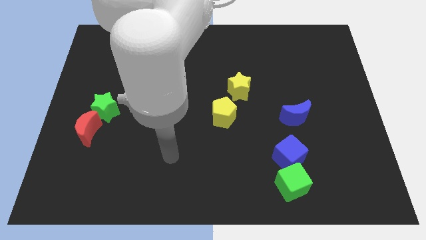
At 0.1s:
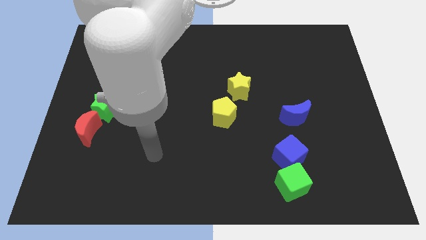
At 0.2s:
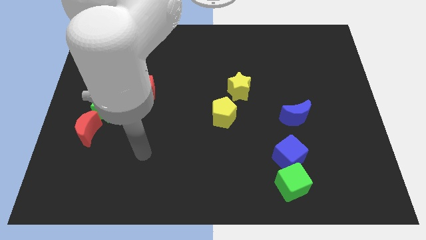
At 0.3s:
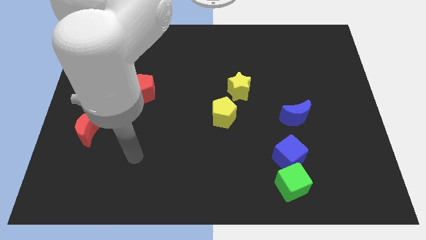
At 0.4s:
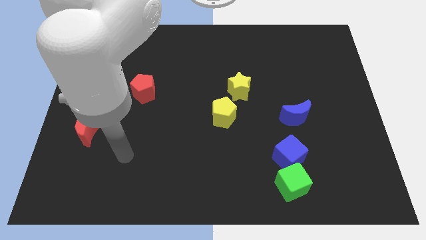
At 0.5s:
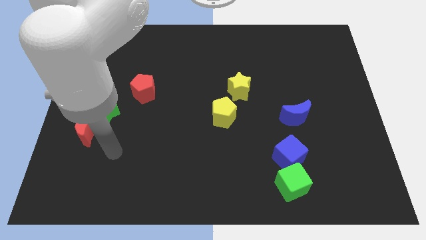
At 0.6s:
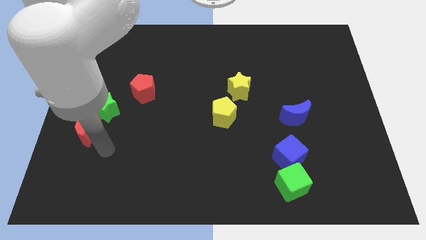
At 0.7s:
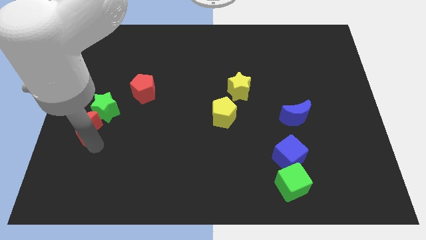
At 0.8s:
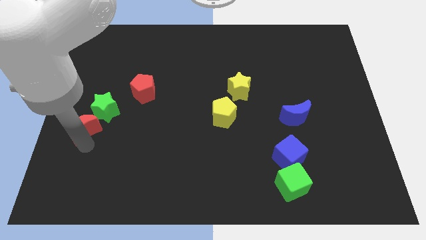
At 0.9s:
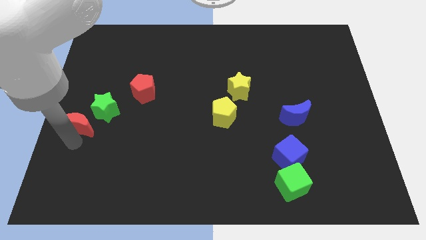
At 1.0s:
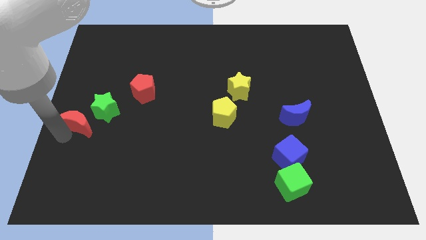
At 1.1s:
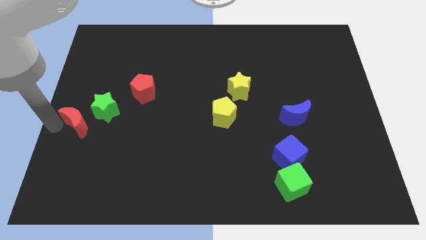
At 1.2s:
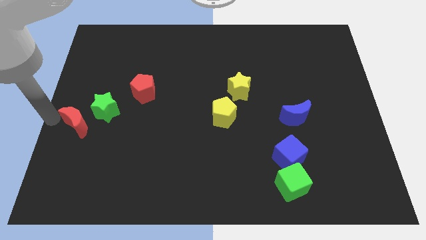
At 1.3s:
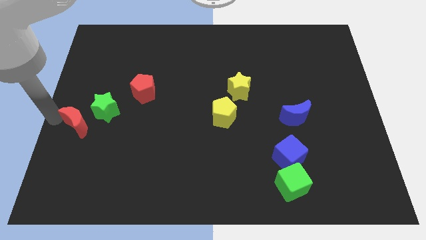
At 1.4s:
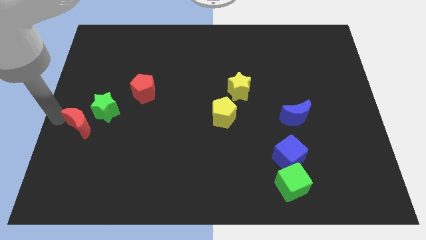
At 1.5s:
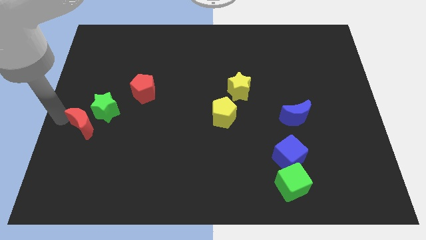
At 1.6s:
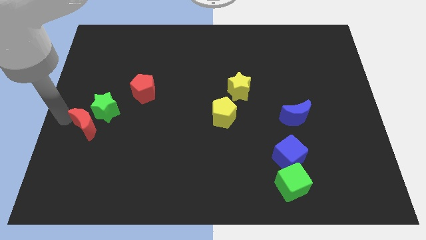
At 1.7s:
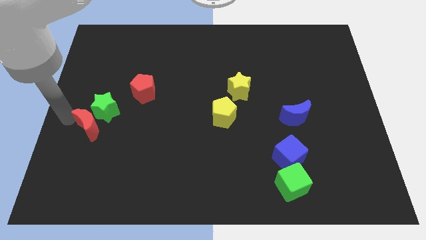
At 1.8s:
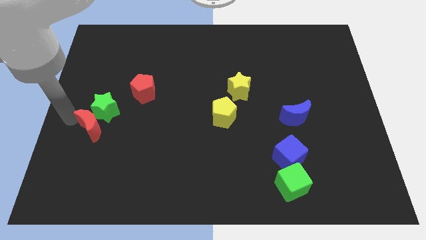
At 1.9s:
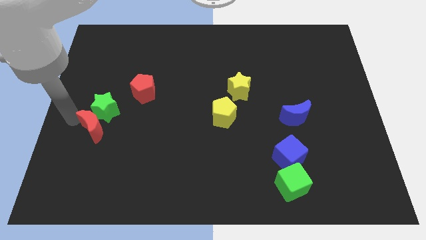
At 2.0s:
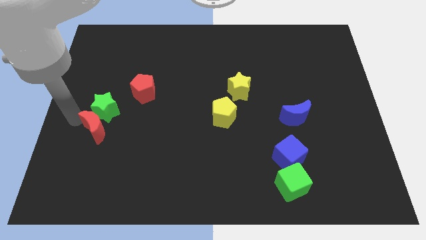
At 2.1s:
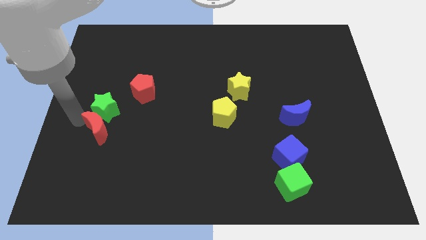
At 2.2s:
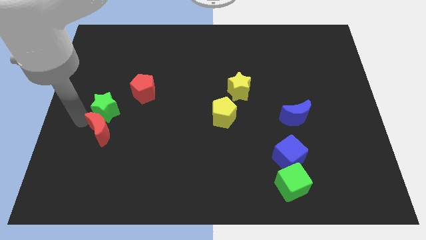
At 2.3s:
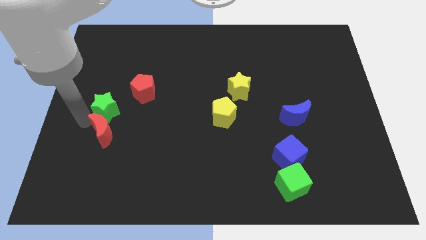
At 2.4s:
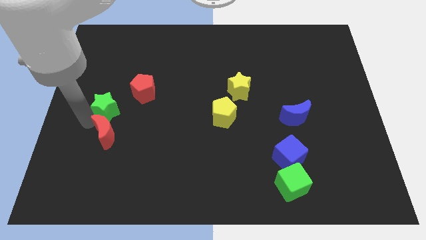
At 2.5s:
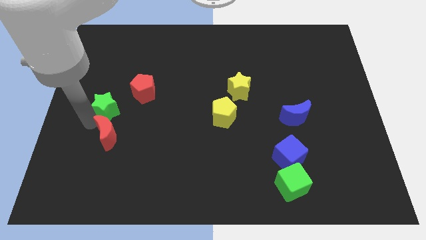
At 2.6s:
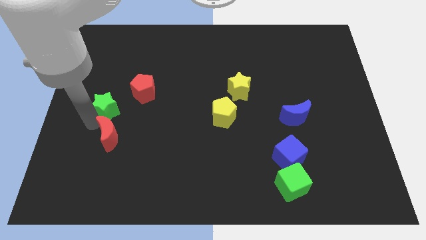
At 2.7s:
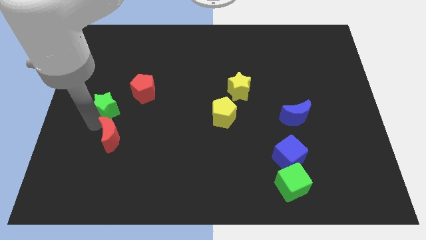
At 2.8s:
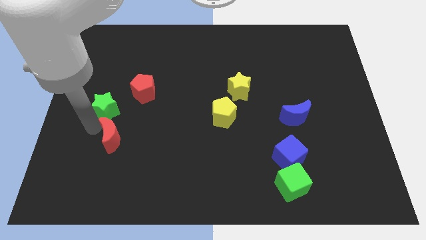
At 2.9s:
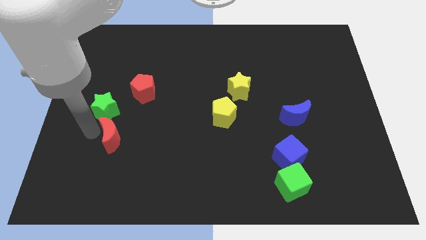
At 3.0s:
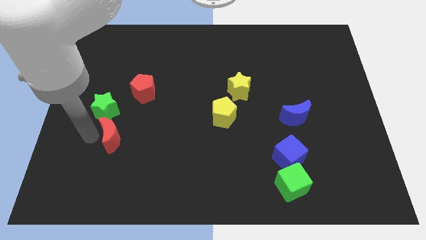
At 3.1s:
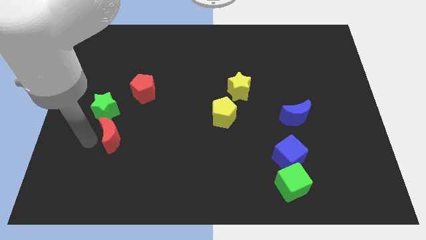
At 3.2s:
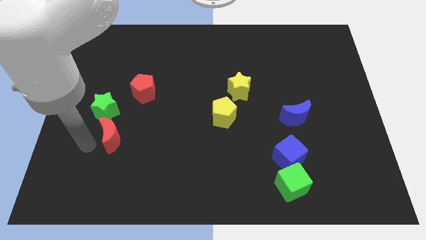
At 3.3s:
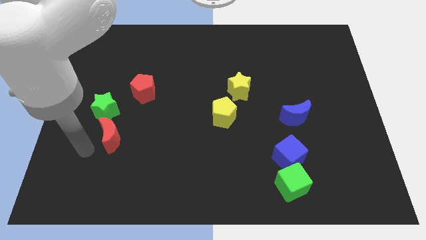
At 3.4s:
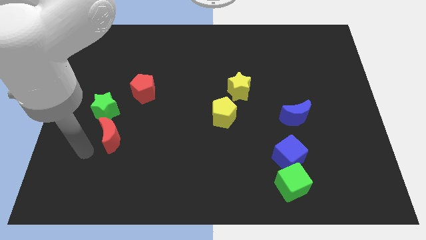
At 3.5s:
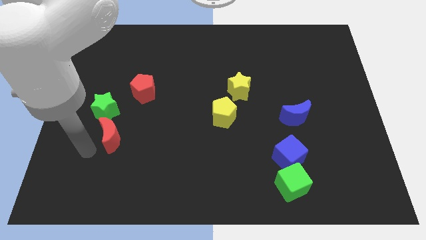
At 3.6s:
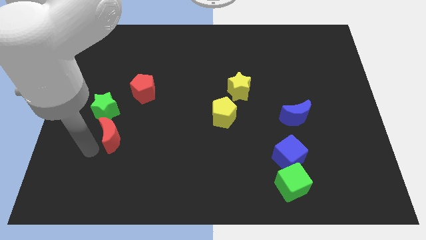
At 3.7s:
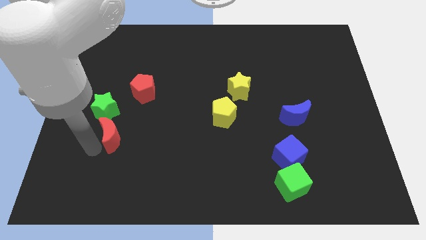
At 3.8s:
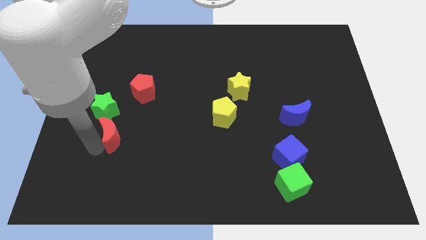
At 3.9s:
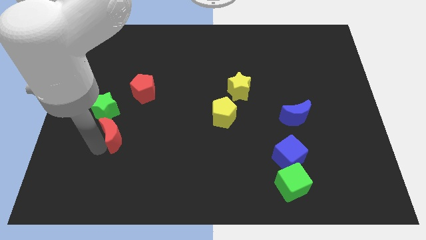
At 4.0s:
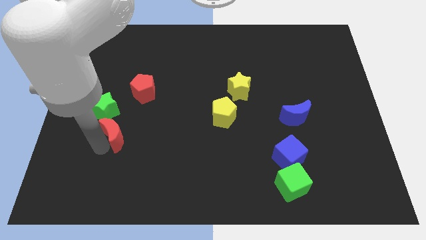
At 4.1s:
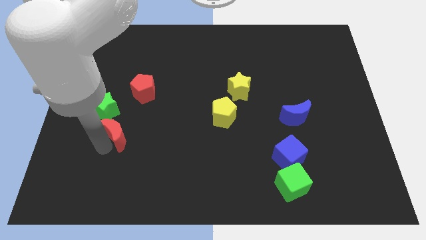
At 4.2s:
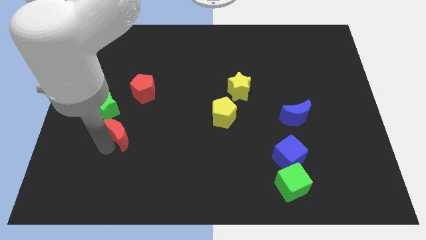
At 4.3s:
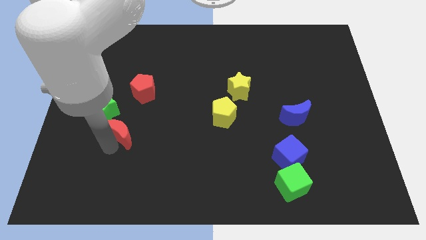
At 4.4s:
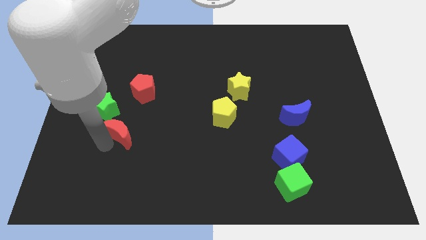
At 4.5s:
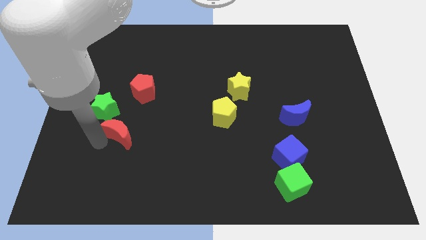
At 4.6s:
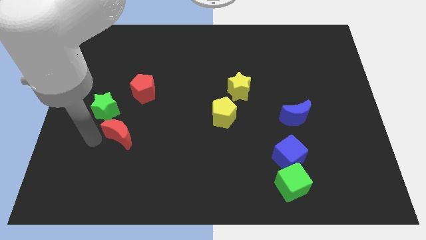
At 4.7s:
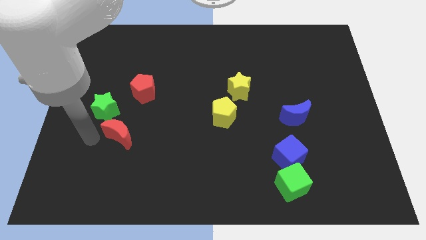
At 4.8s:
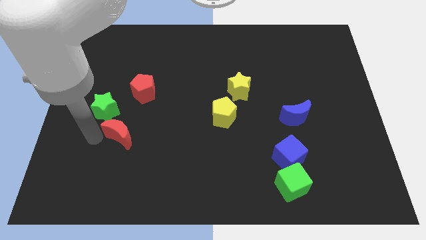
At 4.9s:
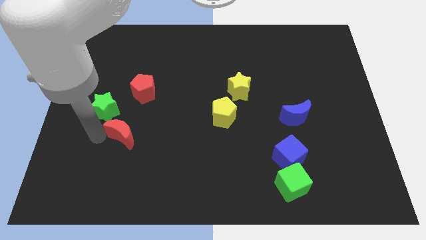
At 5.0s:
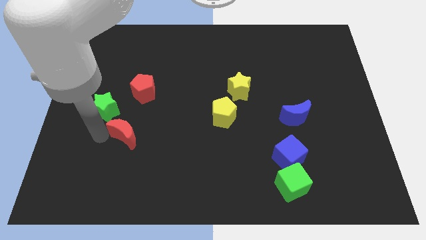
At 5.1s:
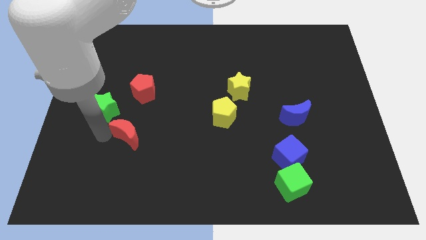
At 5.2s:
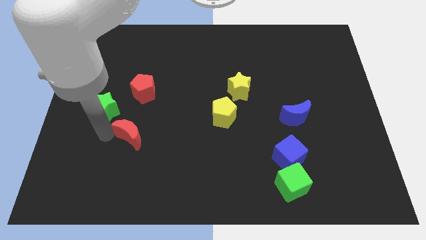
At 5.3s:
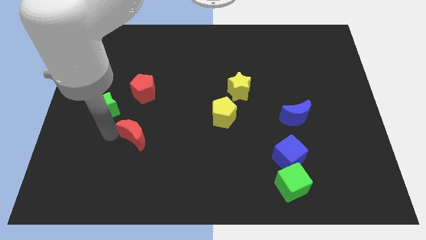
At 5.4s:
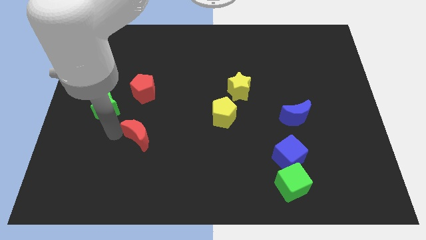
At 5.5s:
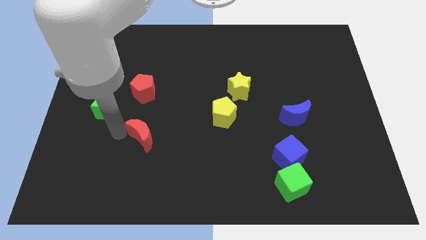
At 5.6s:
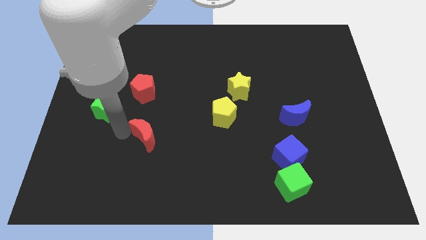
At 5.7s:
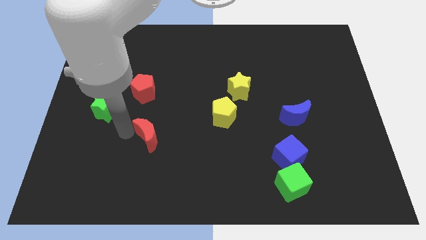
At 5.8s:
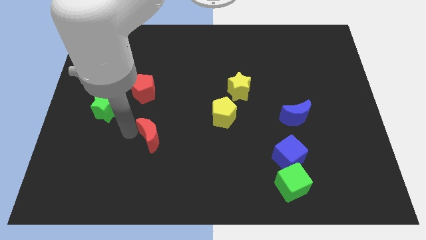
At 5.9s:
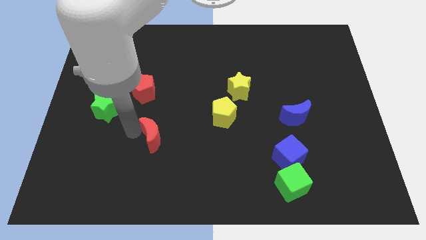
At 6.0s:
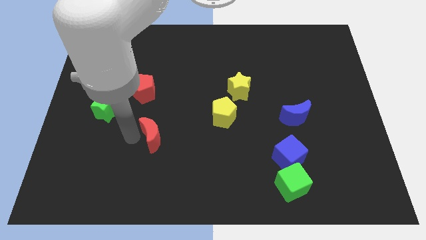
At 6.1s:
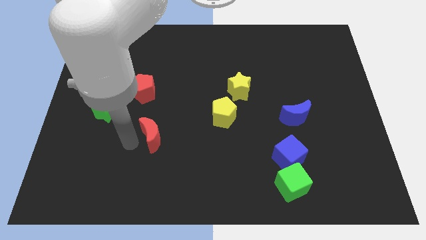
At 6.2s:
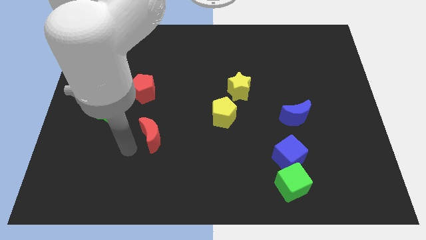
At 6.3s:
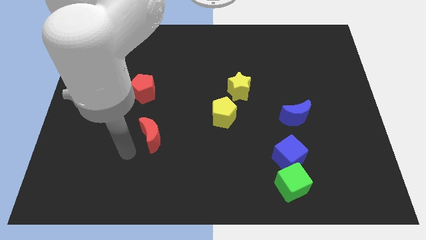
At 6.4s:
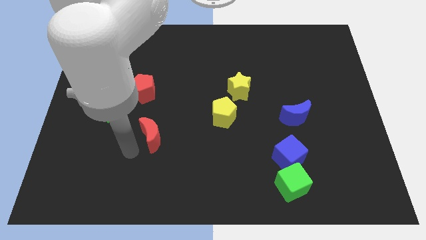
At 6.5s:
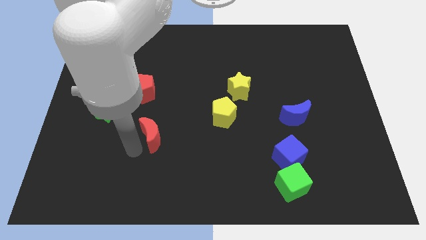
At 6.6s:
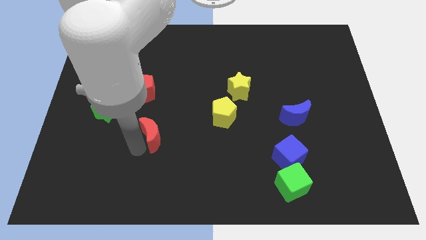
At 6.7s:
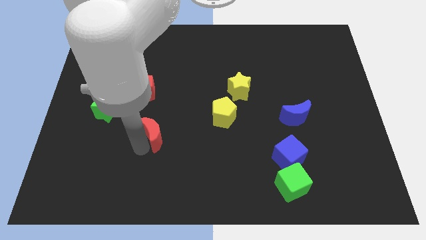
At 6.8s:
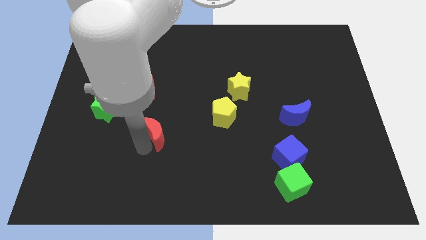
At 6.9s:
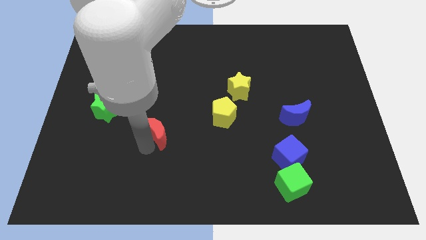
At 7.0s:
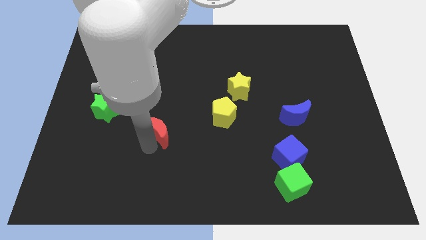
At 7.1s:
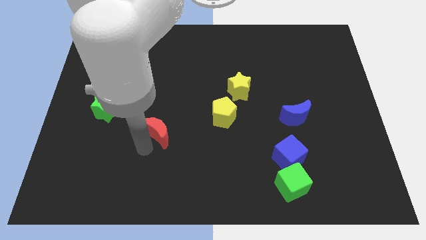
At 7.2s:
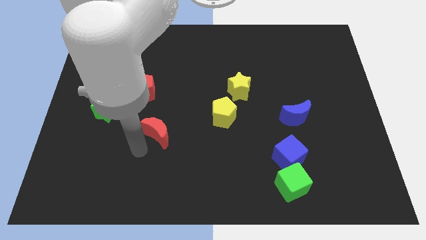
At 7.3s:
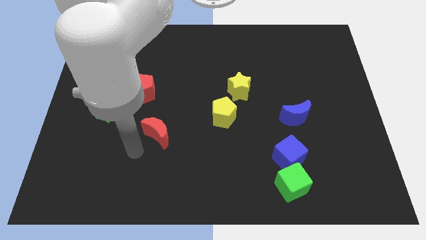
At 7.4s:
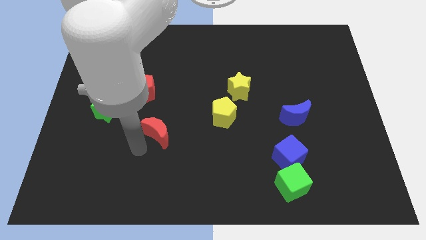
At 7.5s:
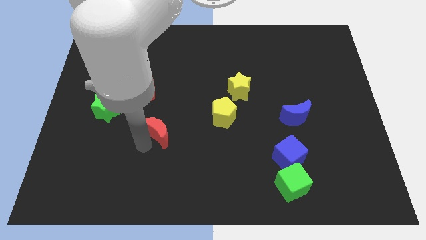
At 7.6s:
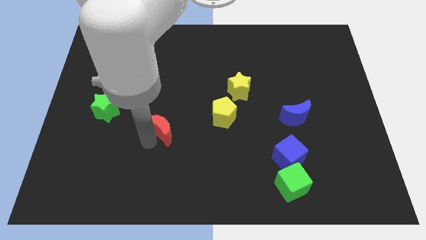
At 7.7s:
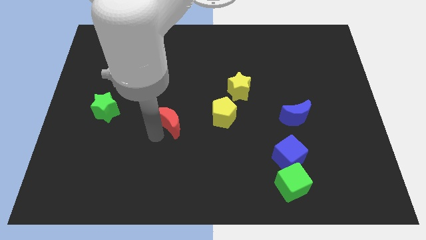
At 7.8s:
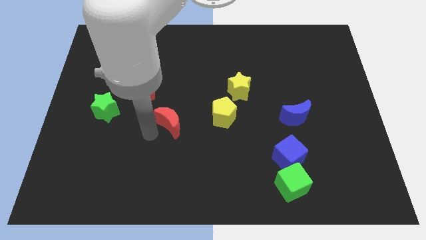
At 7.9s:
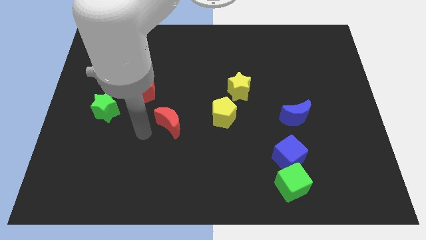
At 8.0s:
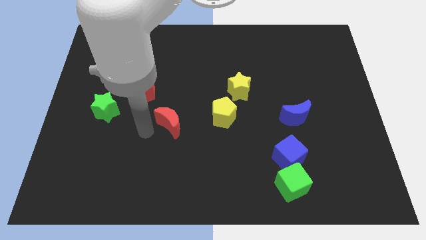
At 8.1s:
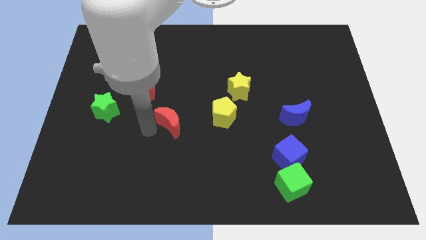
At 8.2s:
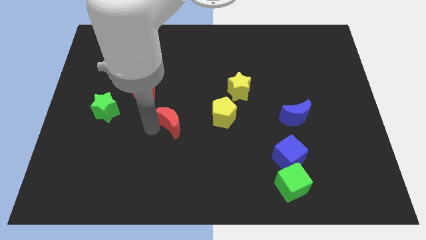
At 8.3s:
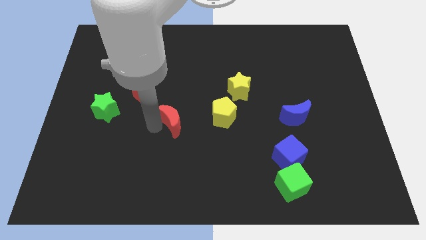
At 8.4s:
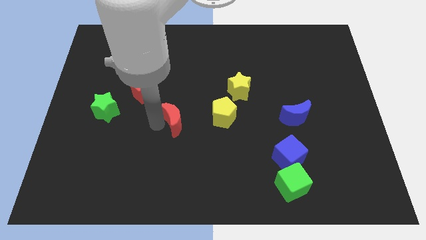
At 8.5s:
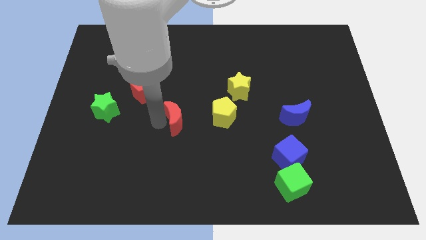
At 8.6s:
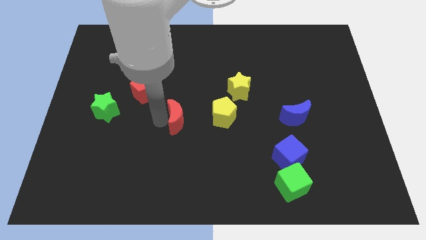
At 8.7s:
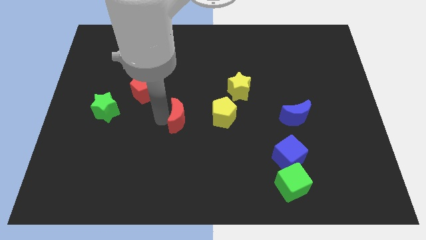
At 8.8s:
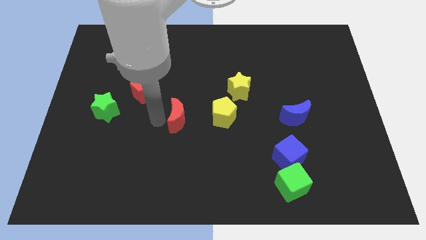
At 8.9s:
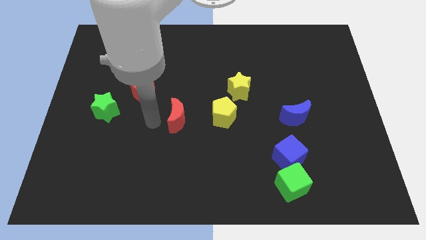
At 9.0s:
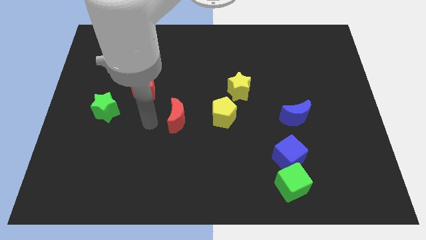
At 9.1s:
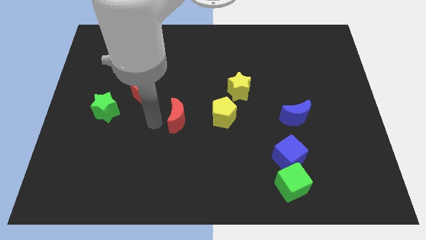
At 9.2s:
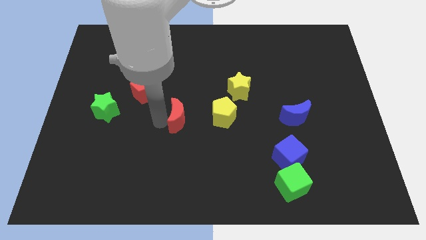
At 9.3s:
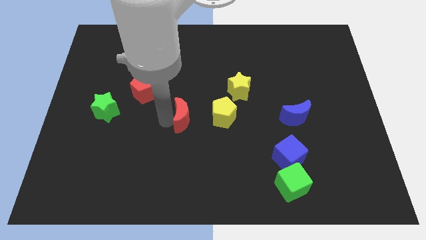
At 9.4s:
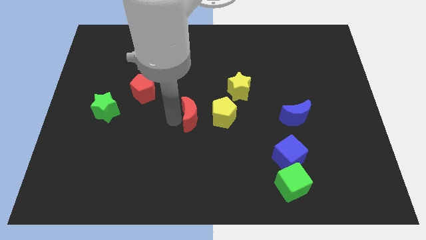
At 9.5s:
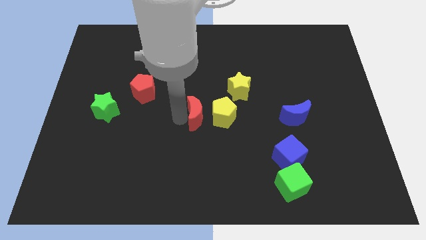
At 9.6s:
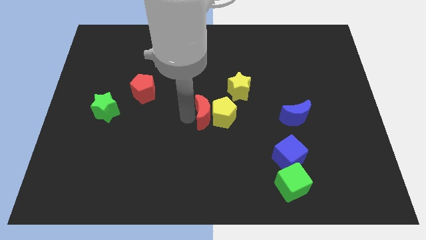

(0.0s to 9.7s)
push the red moon to the yellow pentagon
